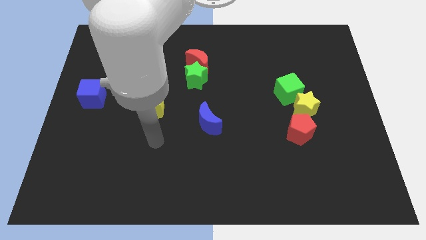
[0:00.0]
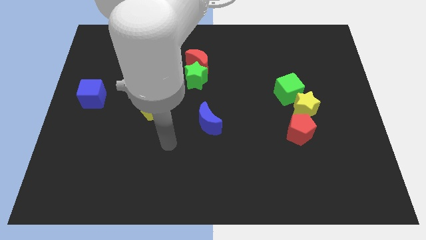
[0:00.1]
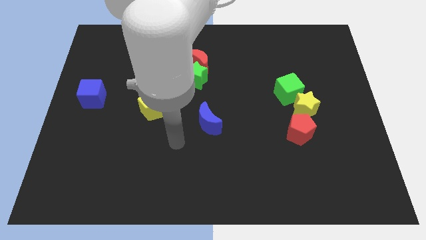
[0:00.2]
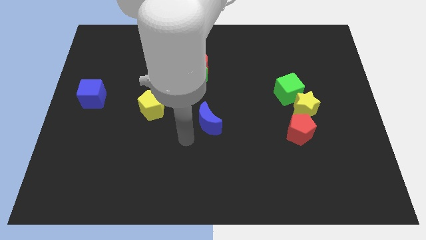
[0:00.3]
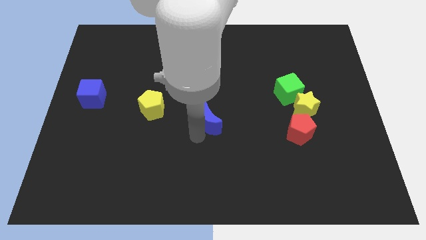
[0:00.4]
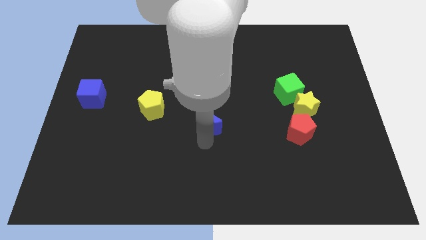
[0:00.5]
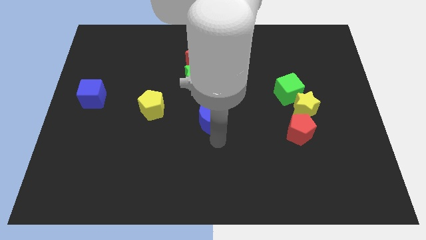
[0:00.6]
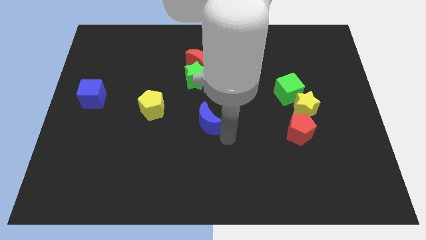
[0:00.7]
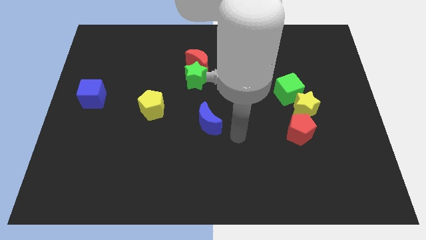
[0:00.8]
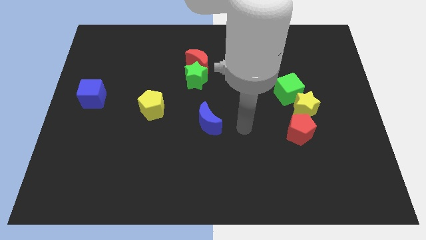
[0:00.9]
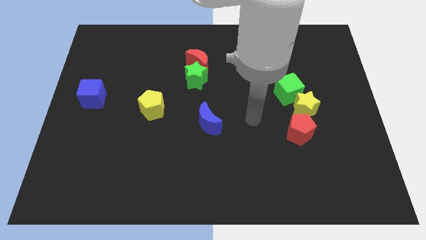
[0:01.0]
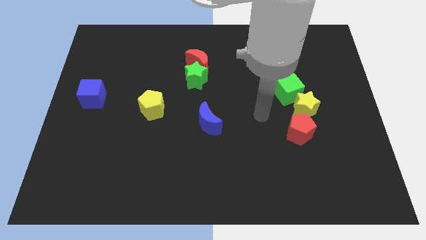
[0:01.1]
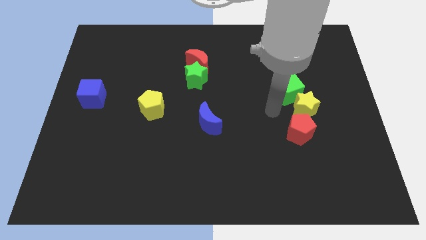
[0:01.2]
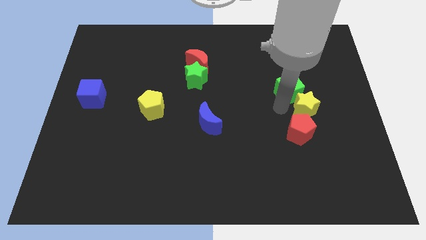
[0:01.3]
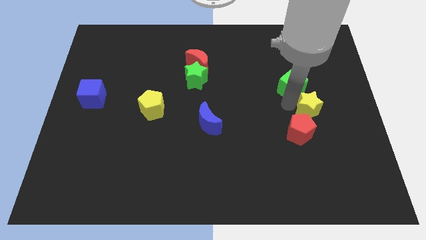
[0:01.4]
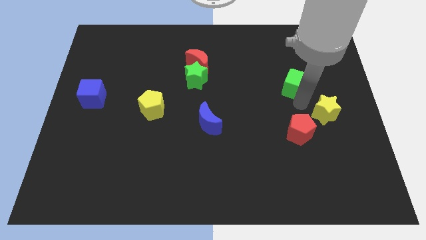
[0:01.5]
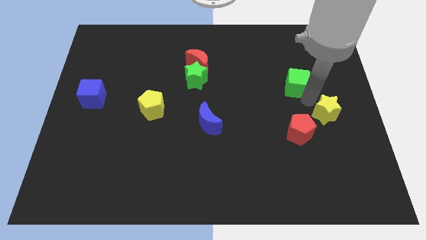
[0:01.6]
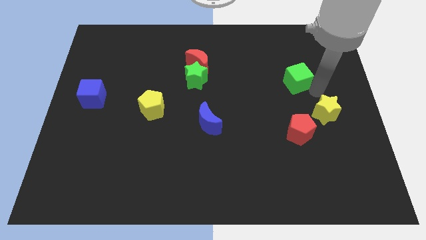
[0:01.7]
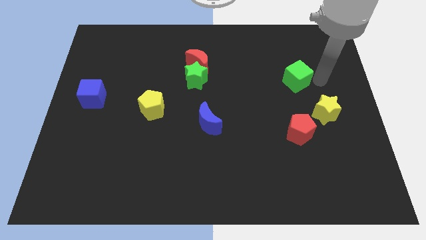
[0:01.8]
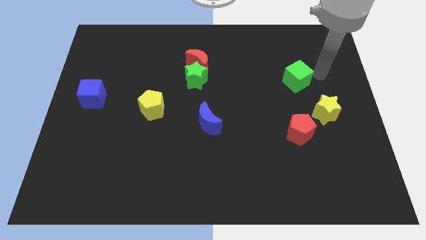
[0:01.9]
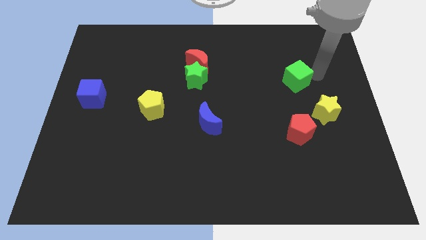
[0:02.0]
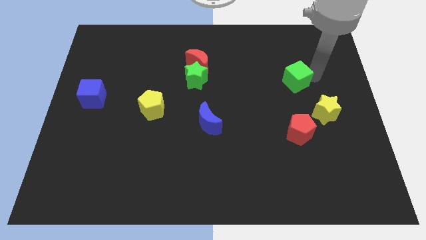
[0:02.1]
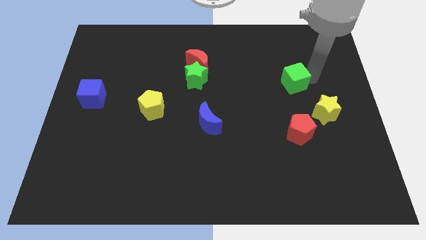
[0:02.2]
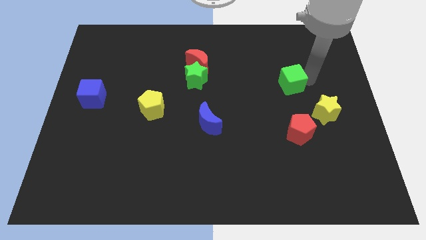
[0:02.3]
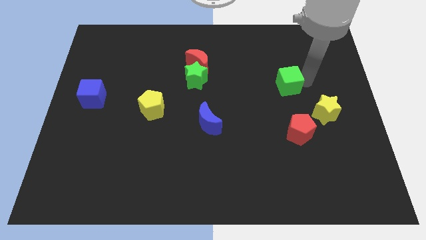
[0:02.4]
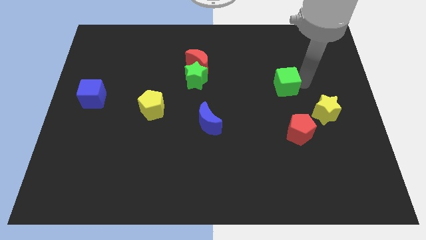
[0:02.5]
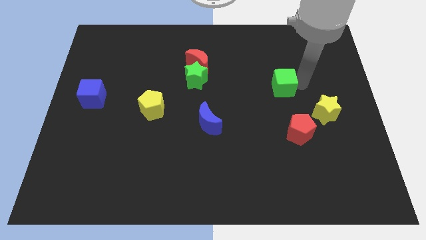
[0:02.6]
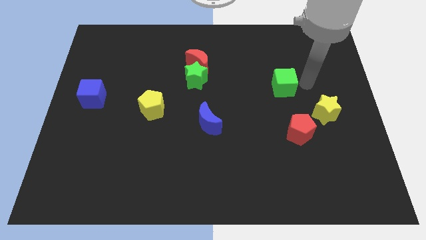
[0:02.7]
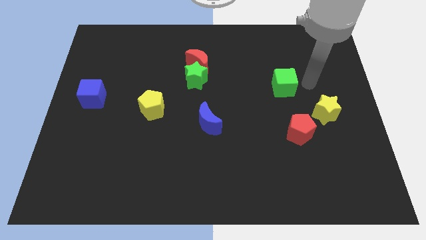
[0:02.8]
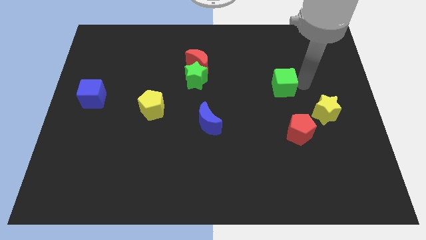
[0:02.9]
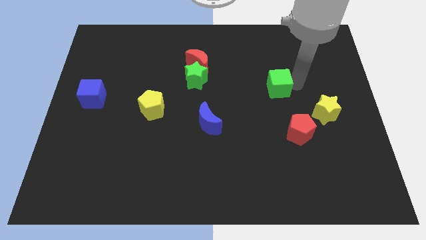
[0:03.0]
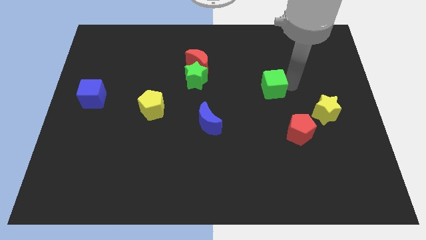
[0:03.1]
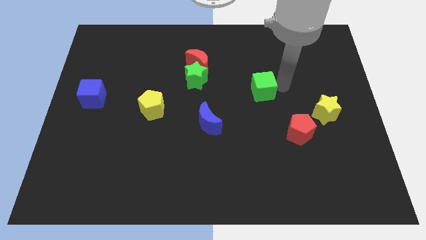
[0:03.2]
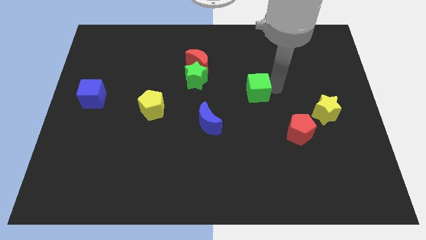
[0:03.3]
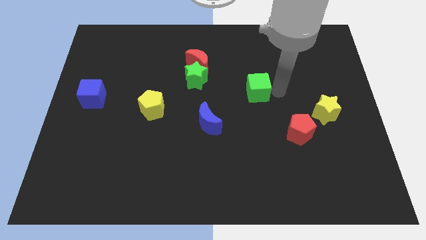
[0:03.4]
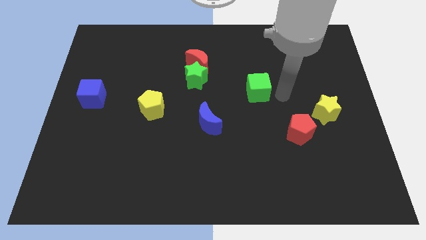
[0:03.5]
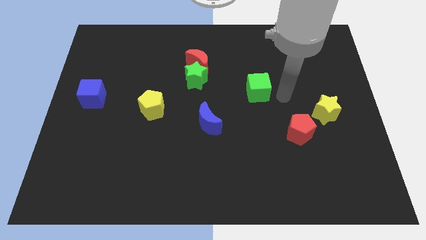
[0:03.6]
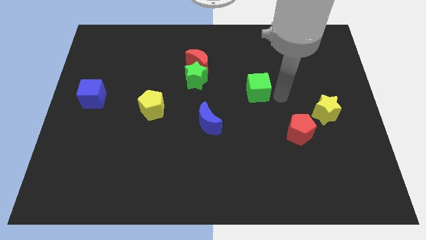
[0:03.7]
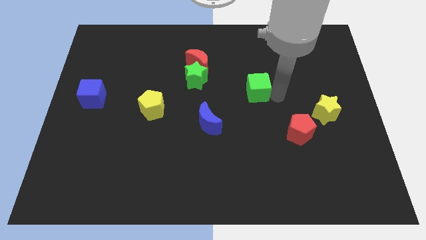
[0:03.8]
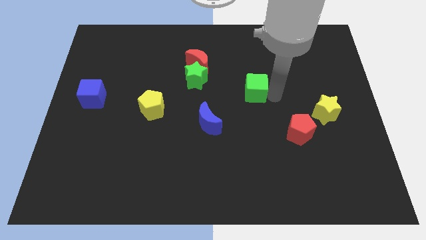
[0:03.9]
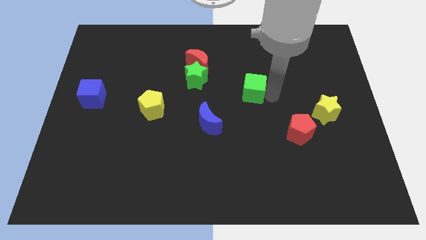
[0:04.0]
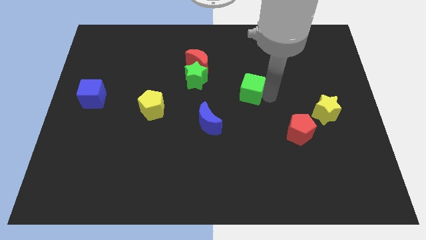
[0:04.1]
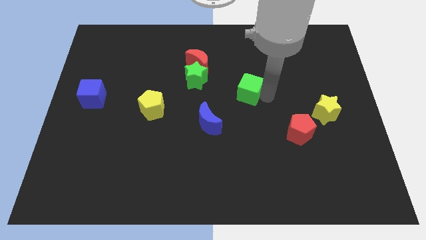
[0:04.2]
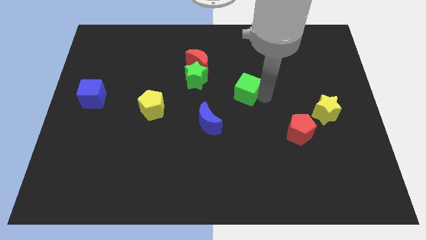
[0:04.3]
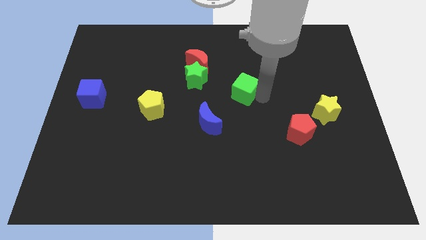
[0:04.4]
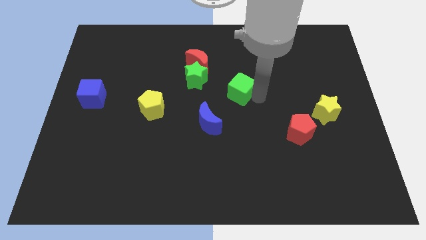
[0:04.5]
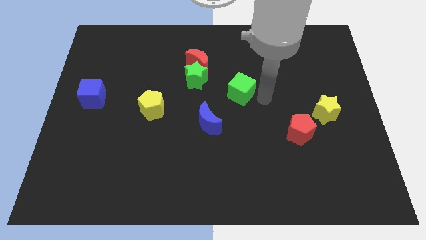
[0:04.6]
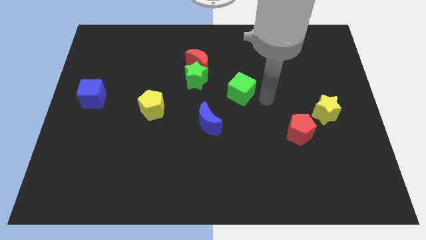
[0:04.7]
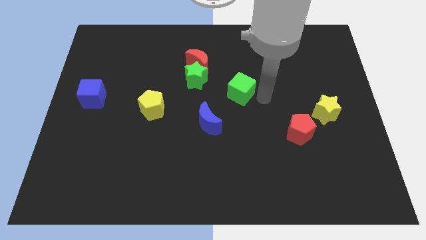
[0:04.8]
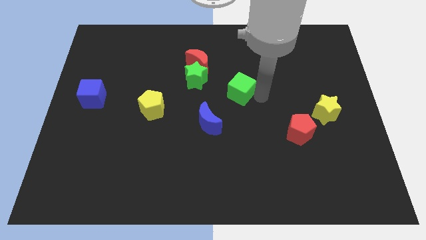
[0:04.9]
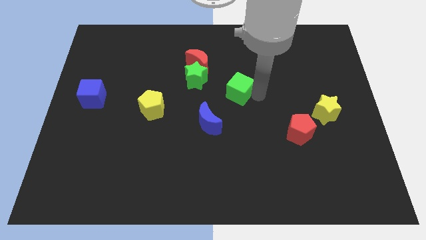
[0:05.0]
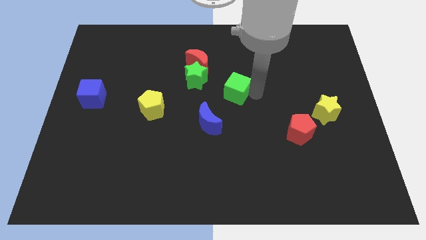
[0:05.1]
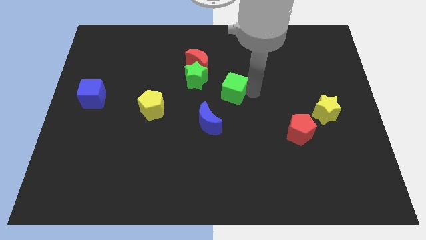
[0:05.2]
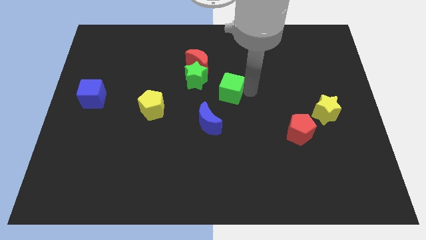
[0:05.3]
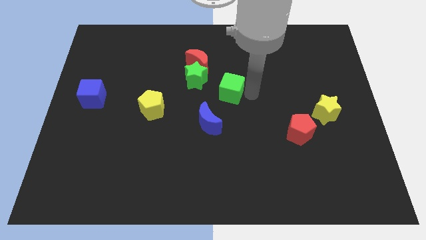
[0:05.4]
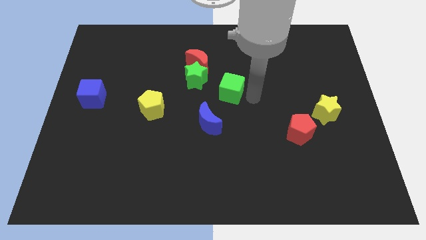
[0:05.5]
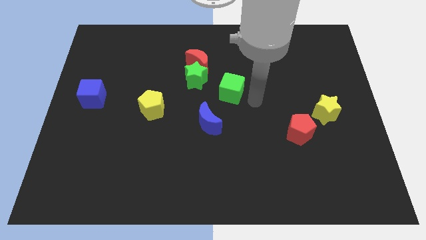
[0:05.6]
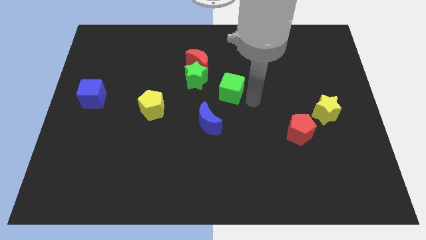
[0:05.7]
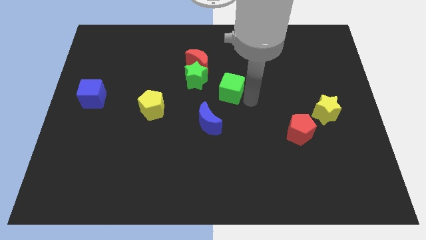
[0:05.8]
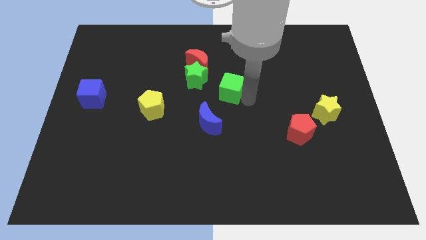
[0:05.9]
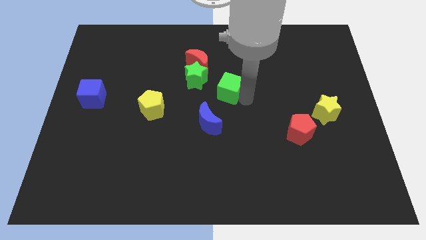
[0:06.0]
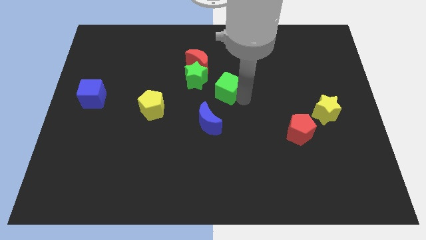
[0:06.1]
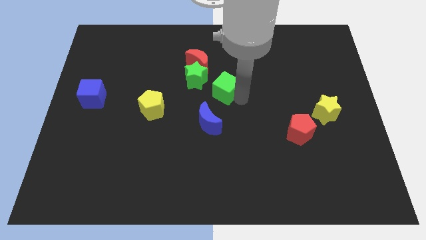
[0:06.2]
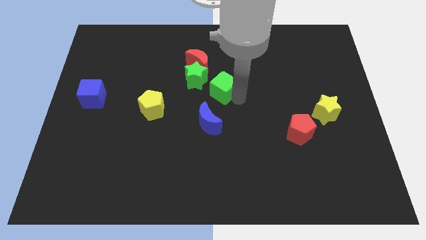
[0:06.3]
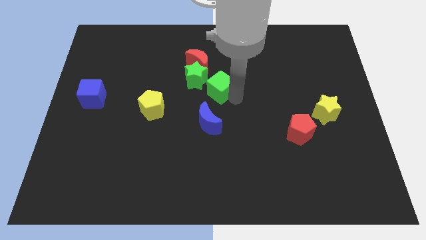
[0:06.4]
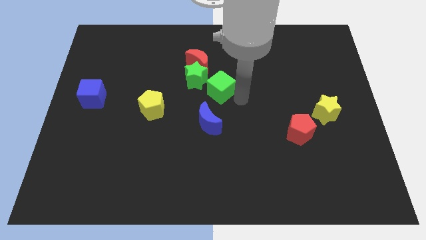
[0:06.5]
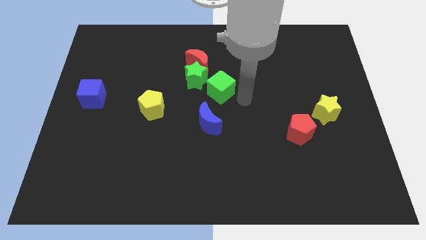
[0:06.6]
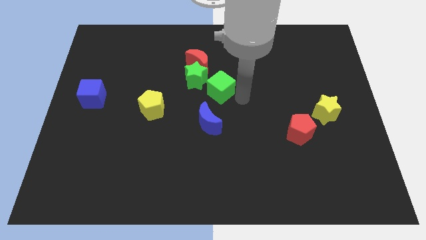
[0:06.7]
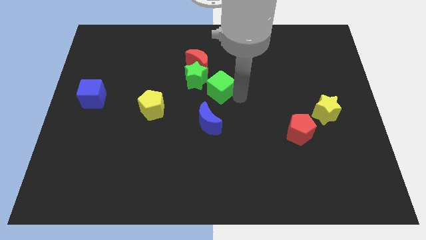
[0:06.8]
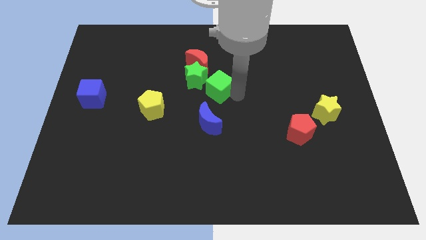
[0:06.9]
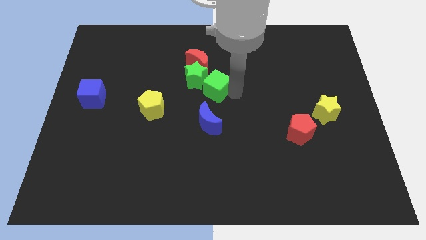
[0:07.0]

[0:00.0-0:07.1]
slide the green cube to the green star
